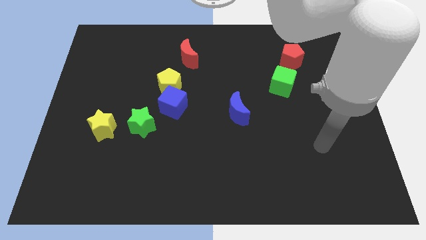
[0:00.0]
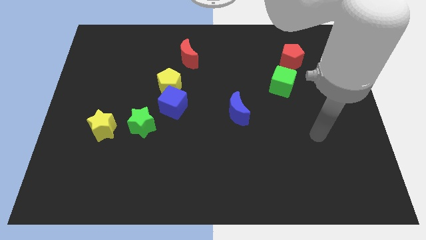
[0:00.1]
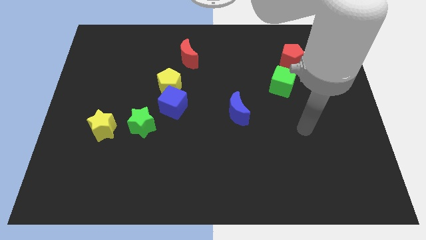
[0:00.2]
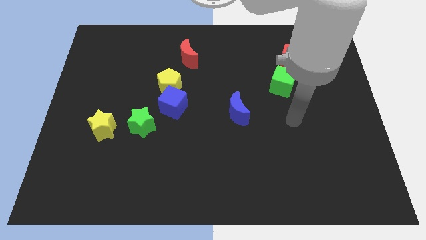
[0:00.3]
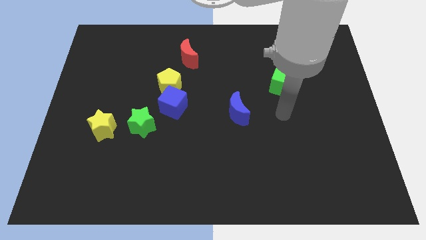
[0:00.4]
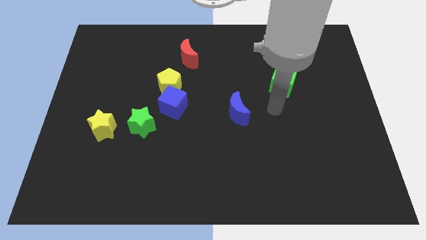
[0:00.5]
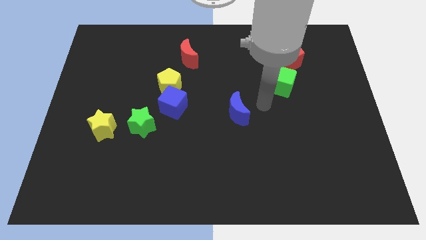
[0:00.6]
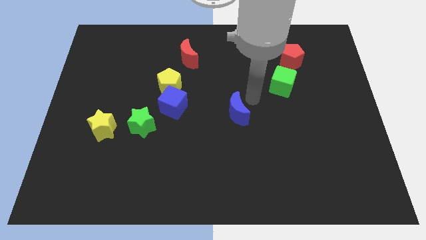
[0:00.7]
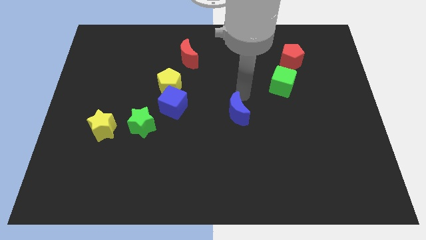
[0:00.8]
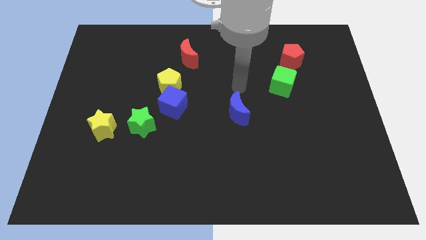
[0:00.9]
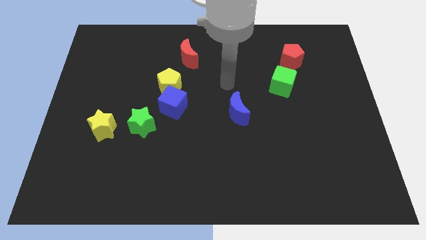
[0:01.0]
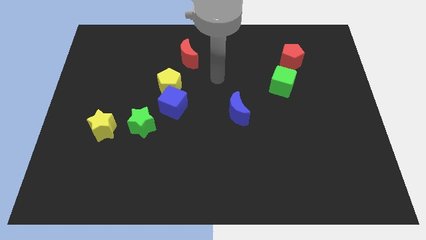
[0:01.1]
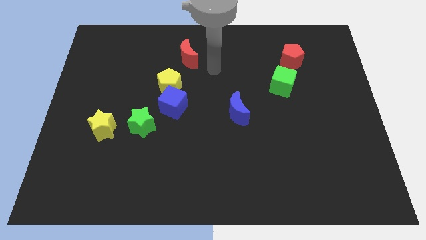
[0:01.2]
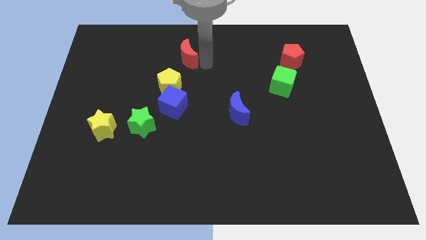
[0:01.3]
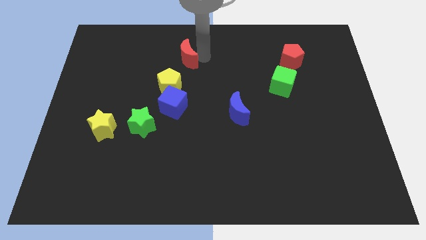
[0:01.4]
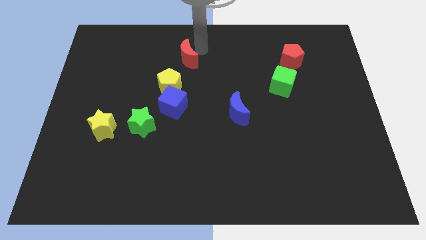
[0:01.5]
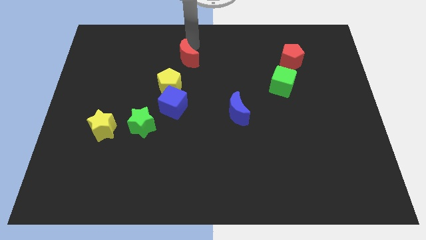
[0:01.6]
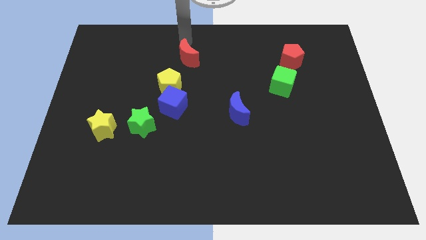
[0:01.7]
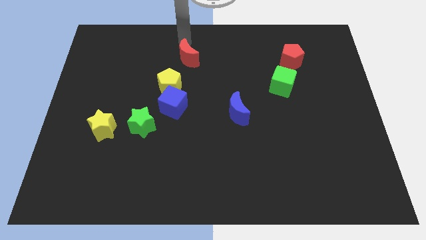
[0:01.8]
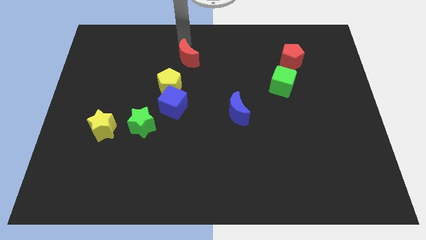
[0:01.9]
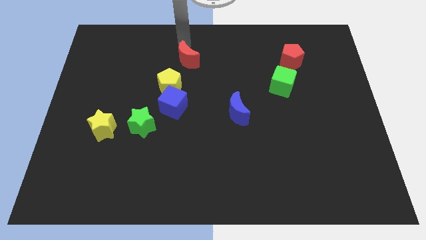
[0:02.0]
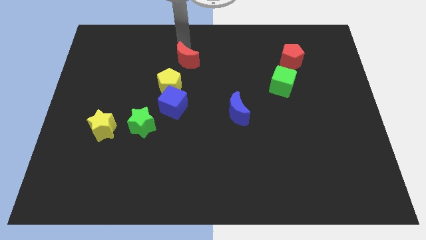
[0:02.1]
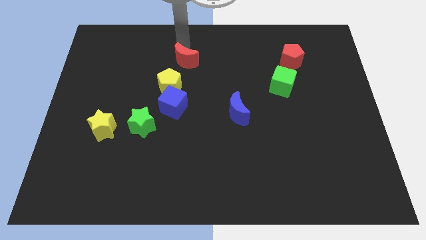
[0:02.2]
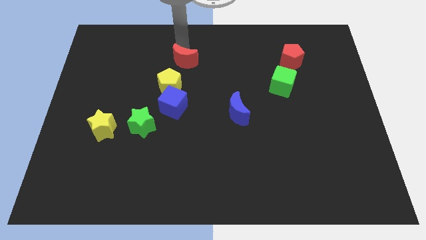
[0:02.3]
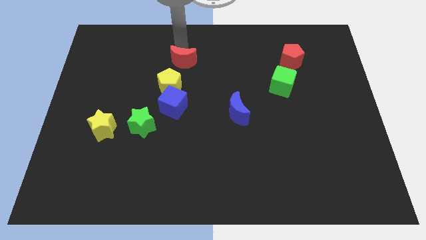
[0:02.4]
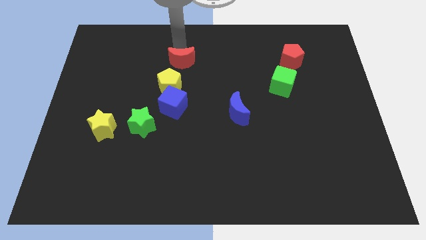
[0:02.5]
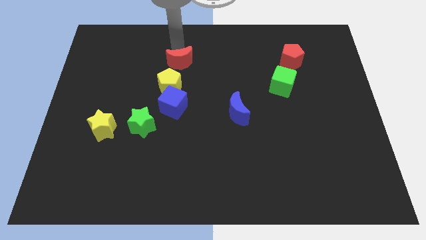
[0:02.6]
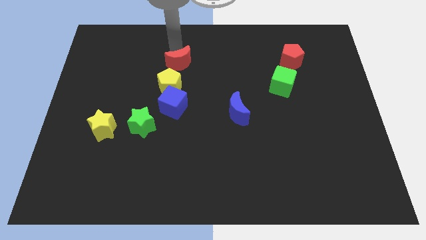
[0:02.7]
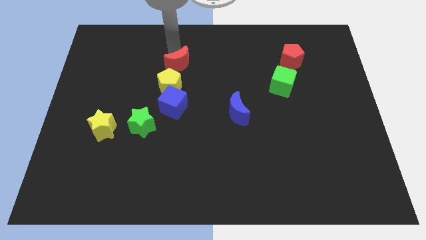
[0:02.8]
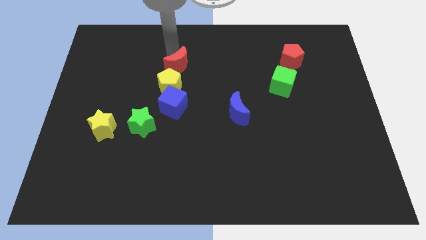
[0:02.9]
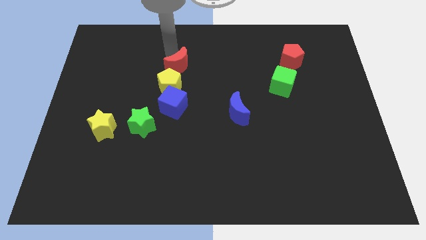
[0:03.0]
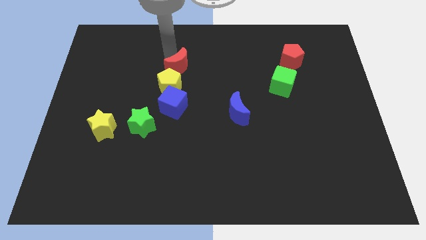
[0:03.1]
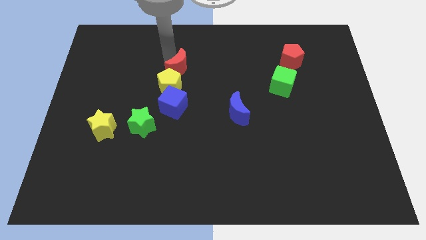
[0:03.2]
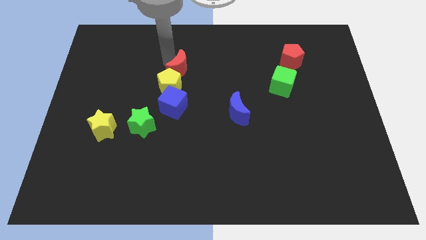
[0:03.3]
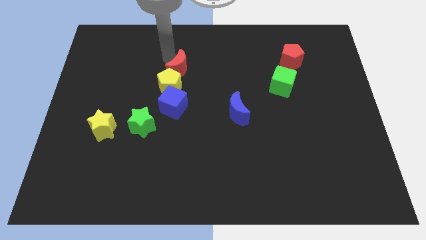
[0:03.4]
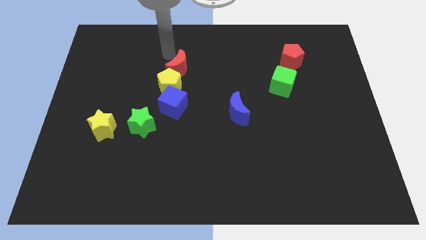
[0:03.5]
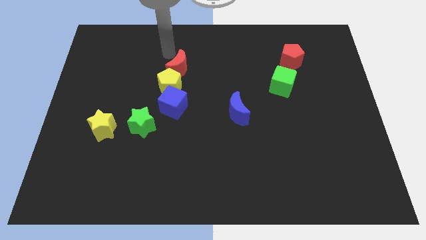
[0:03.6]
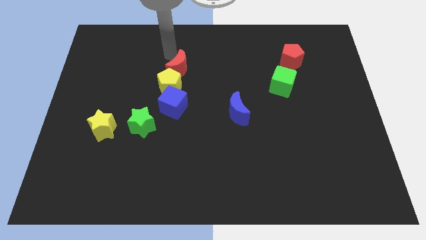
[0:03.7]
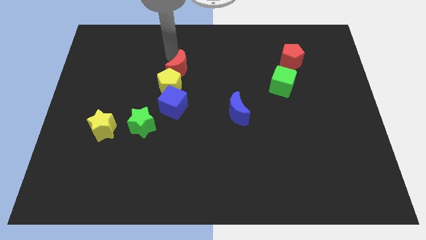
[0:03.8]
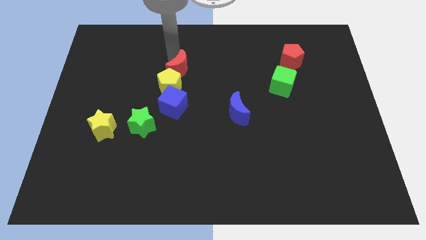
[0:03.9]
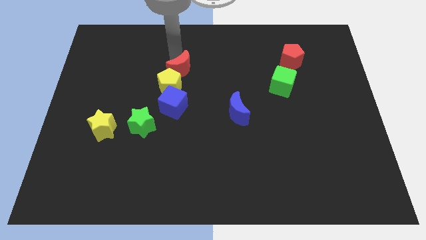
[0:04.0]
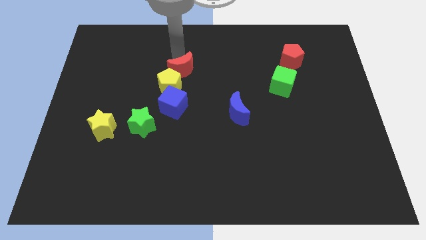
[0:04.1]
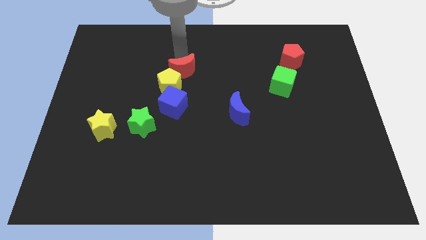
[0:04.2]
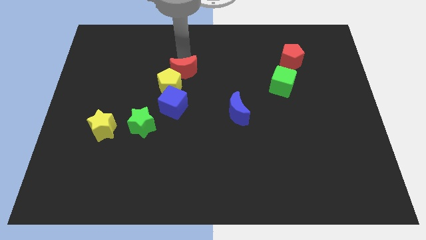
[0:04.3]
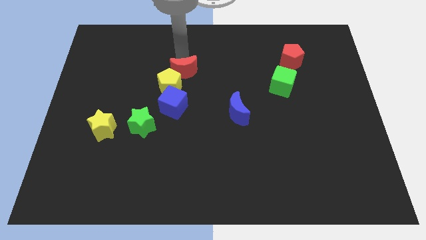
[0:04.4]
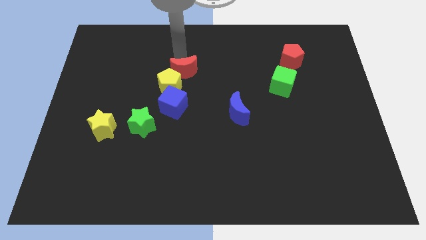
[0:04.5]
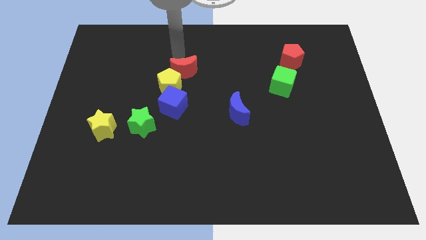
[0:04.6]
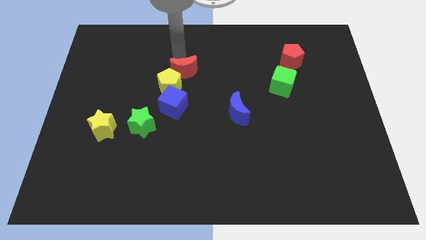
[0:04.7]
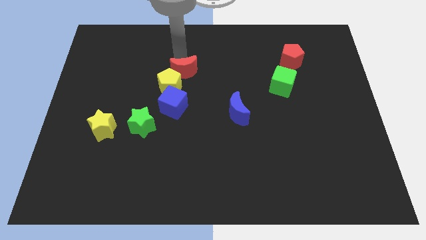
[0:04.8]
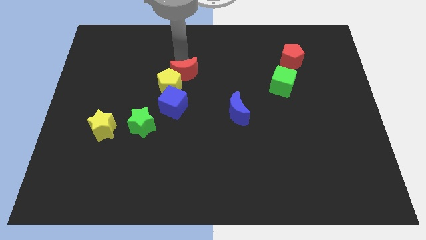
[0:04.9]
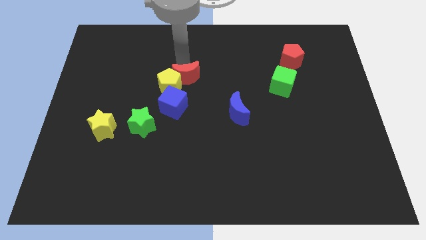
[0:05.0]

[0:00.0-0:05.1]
slightly push the red moon down

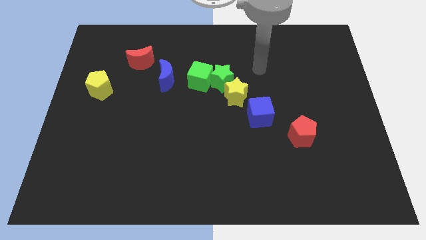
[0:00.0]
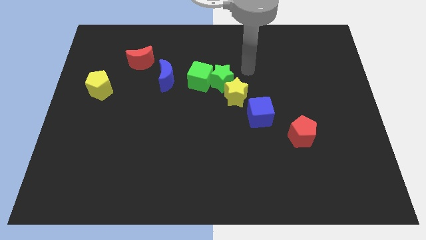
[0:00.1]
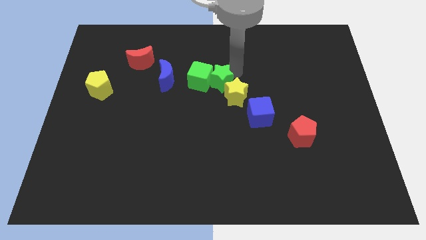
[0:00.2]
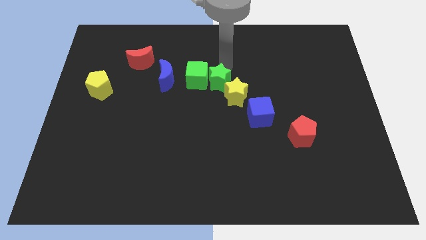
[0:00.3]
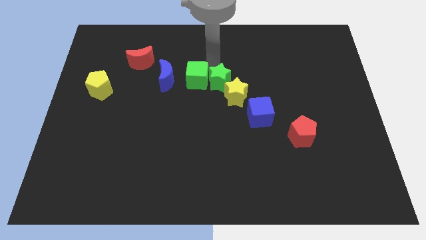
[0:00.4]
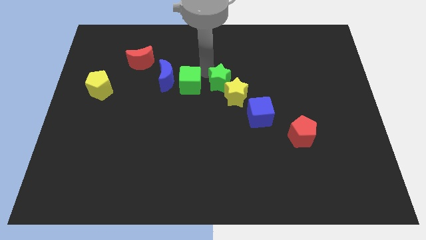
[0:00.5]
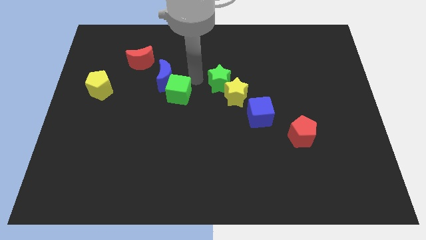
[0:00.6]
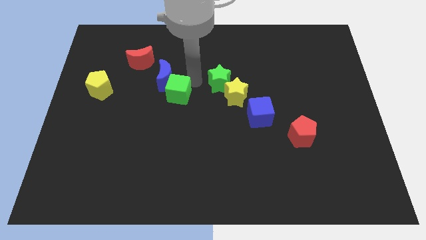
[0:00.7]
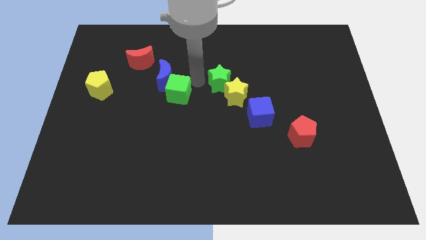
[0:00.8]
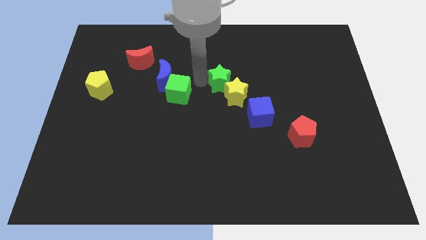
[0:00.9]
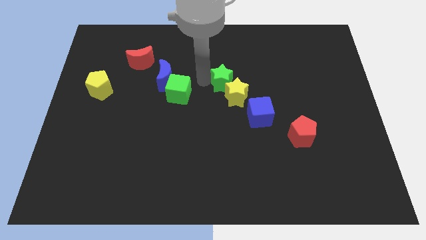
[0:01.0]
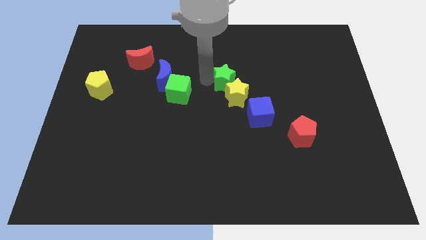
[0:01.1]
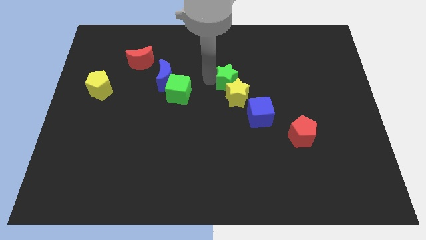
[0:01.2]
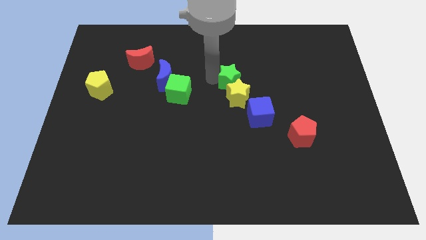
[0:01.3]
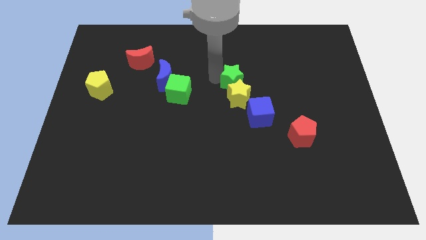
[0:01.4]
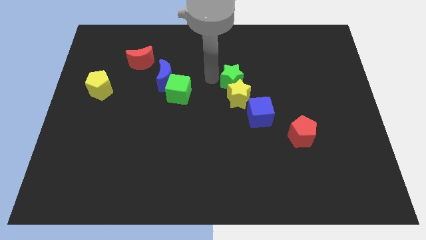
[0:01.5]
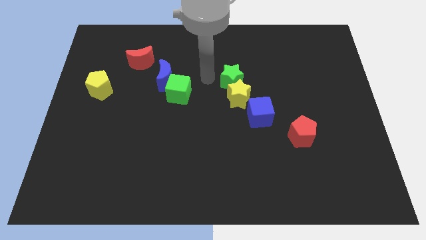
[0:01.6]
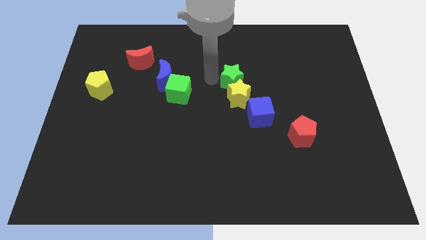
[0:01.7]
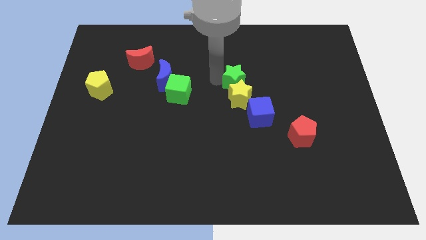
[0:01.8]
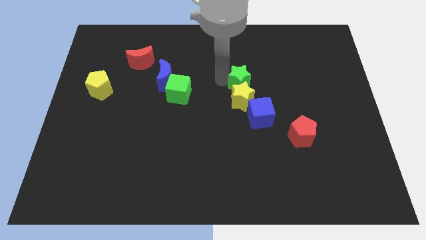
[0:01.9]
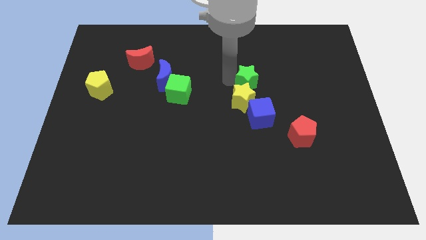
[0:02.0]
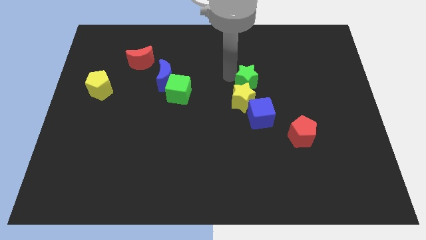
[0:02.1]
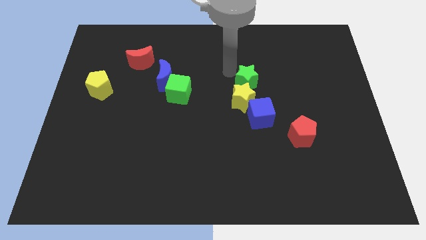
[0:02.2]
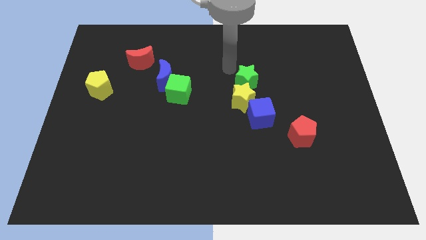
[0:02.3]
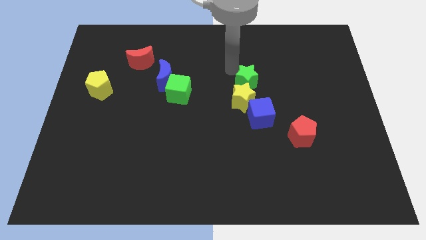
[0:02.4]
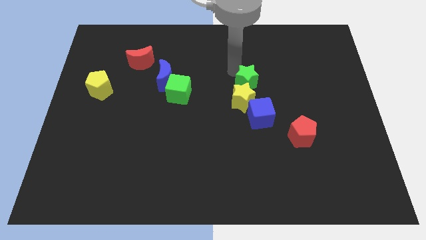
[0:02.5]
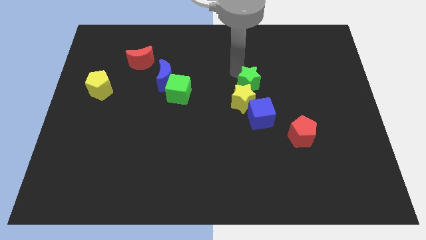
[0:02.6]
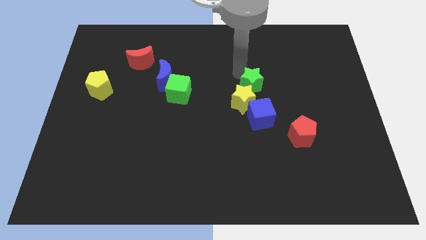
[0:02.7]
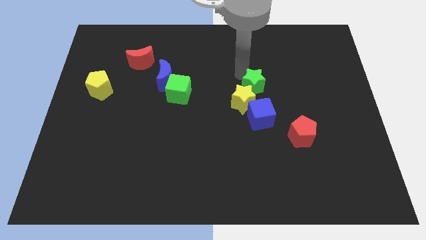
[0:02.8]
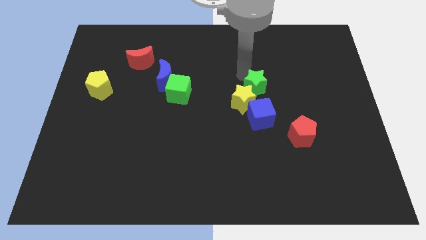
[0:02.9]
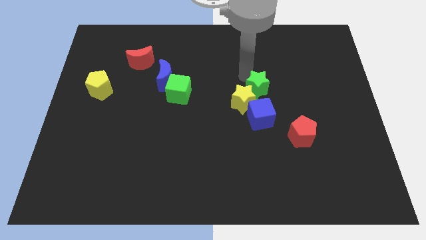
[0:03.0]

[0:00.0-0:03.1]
move the green star downwards and right diagonally a bit
